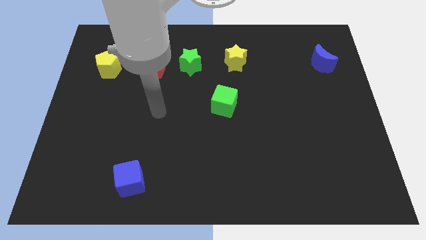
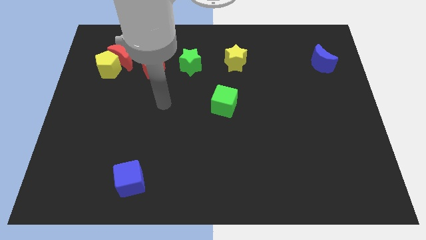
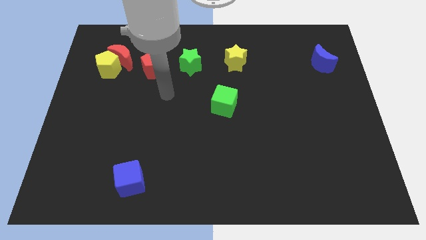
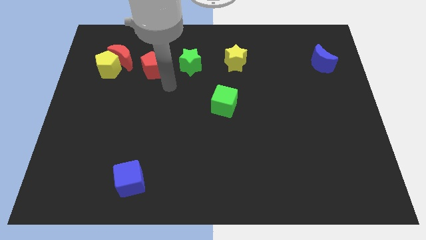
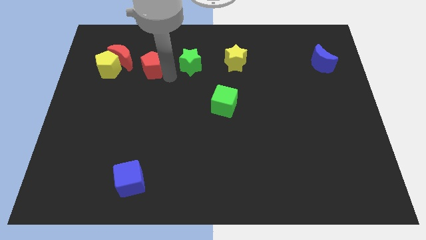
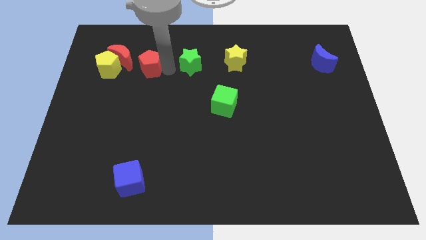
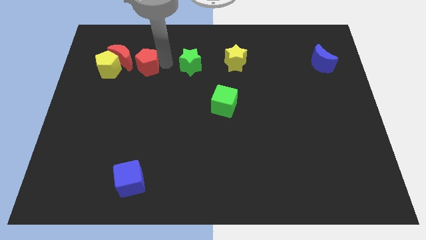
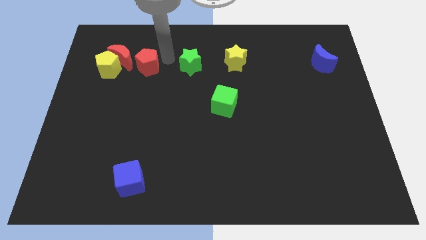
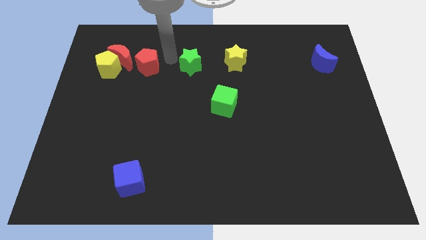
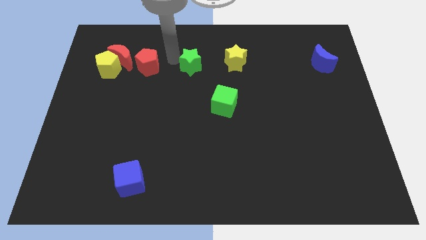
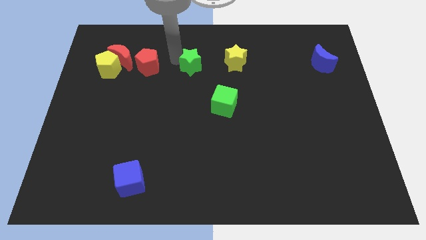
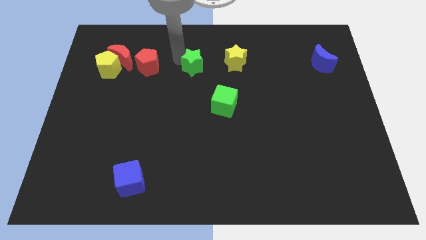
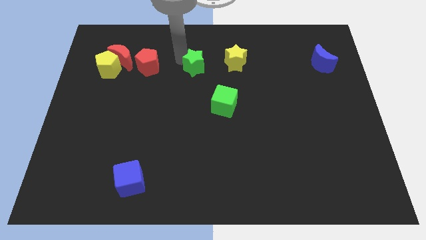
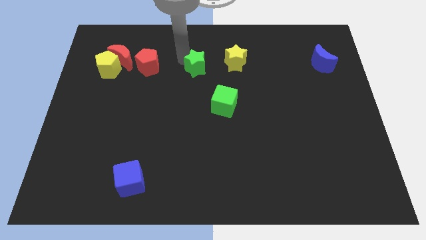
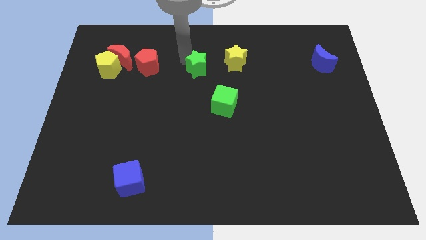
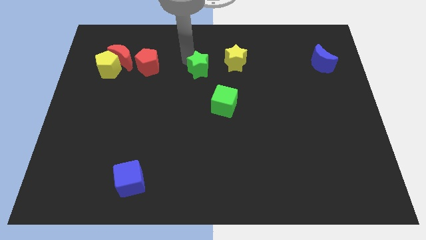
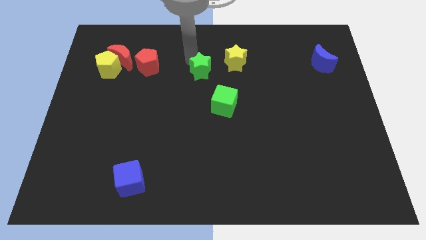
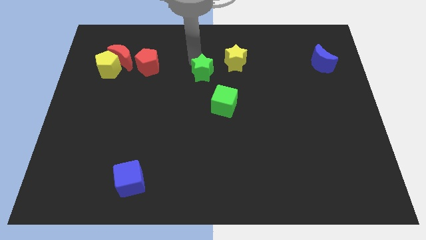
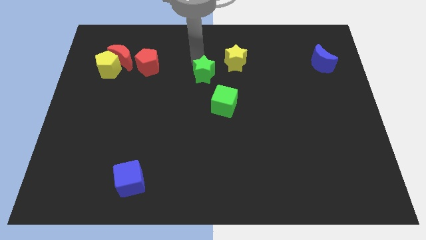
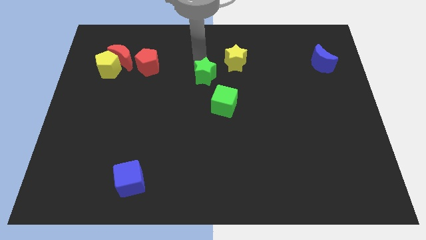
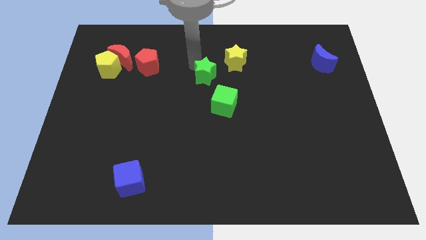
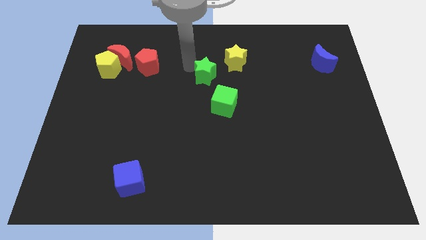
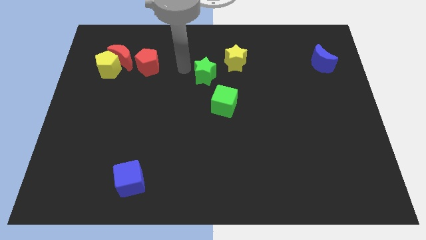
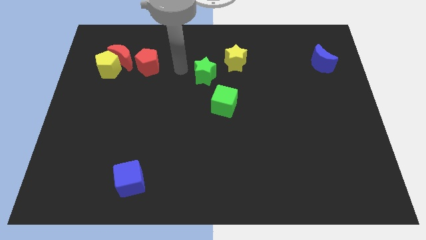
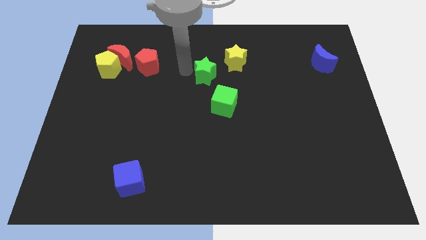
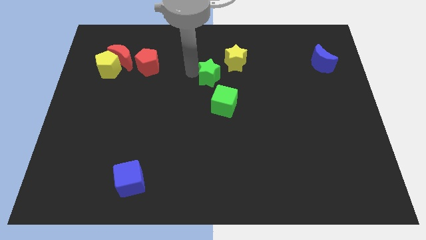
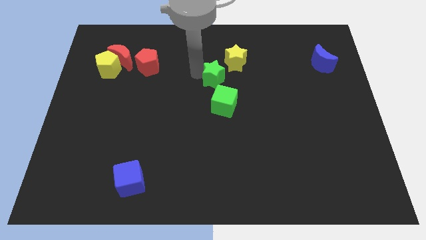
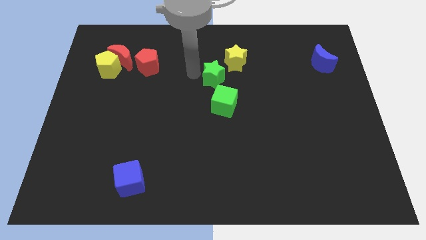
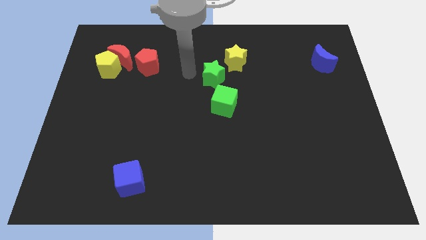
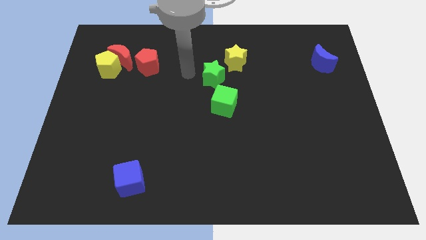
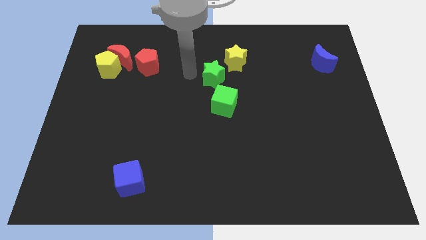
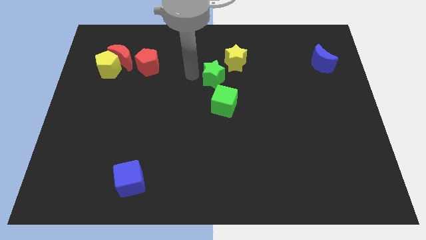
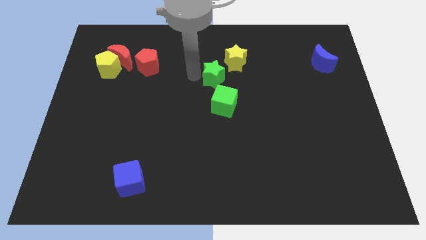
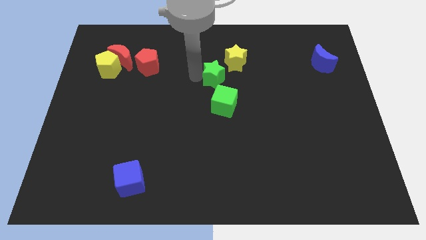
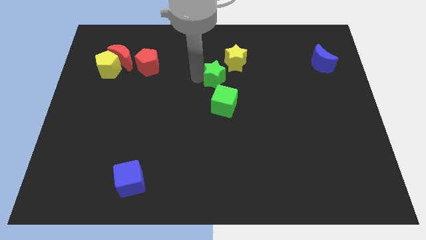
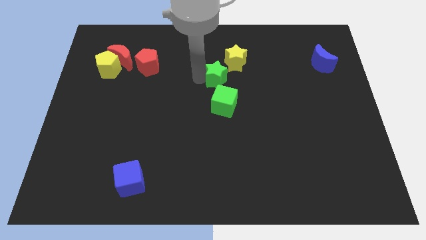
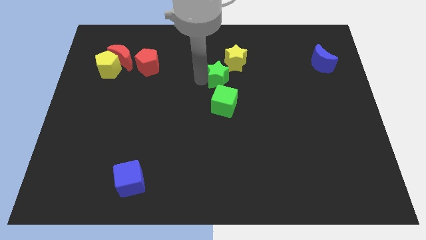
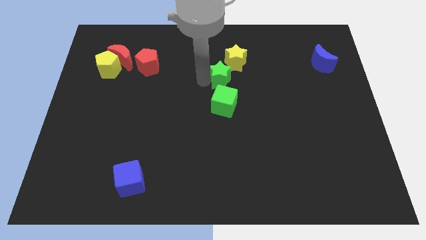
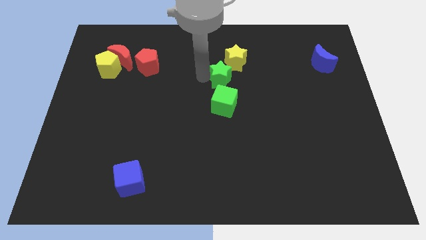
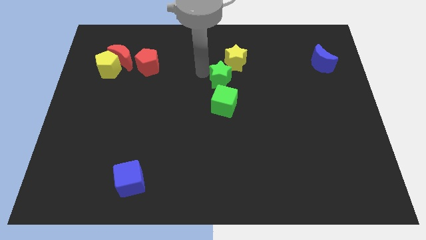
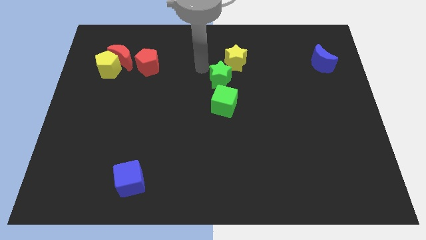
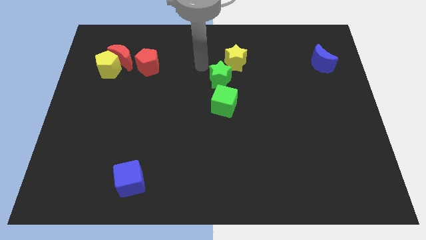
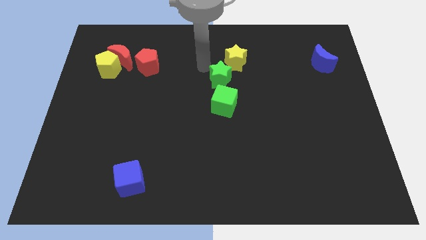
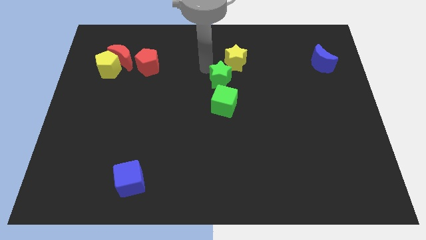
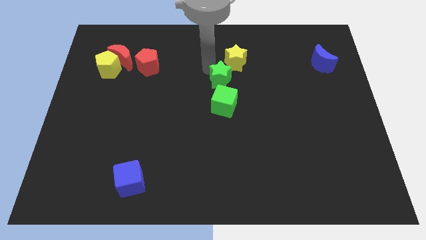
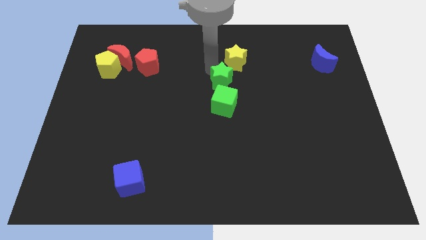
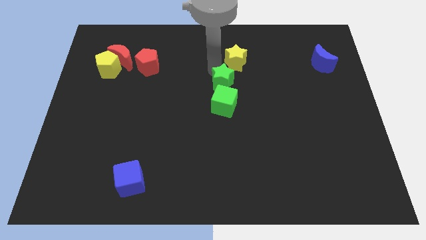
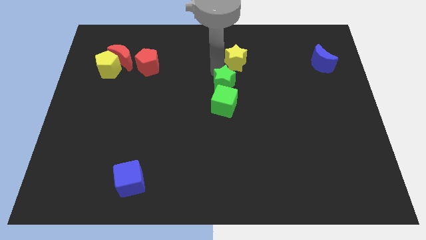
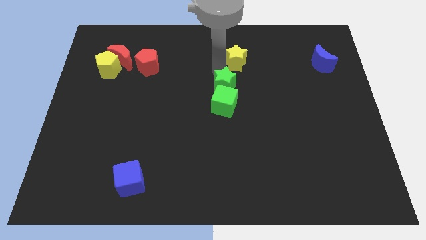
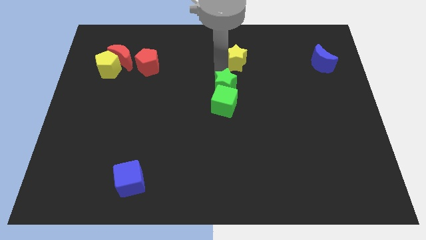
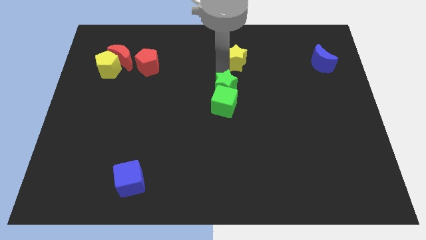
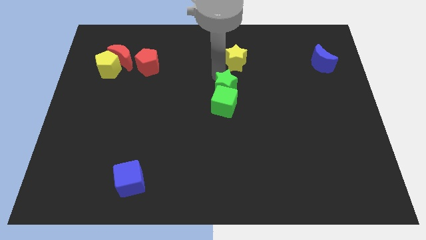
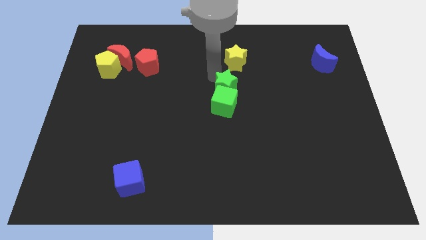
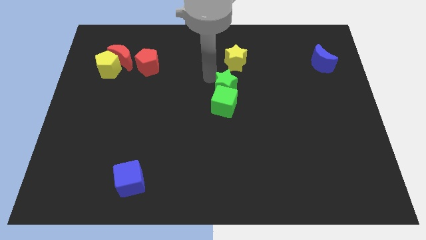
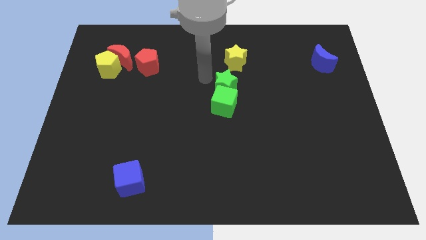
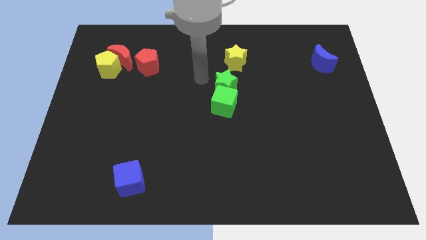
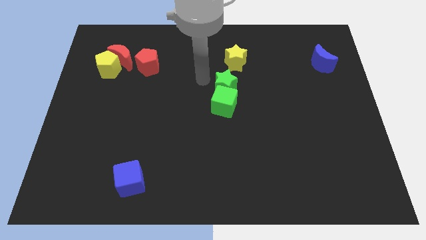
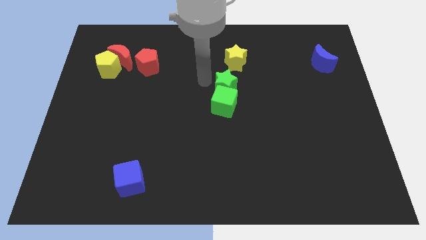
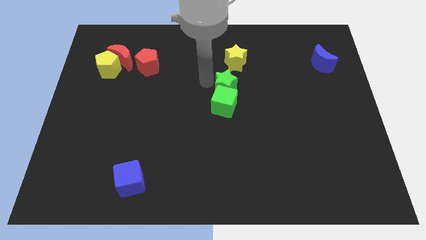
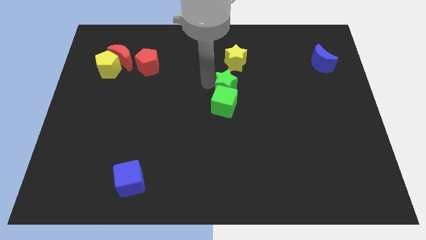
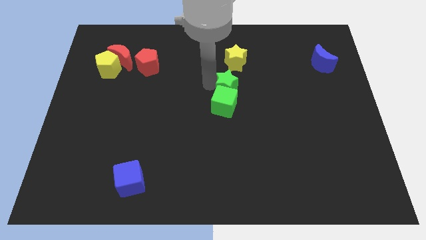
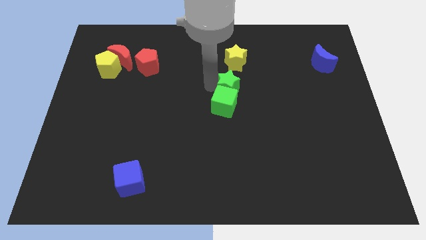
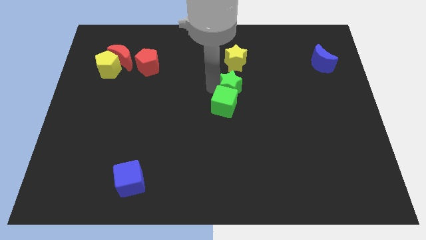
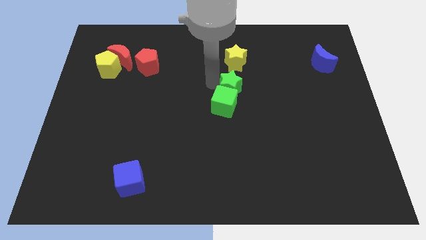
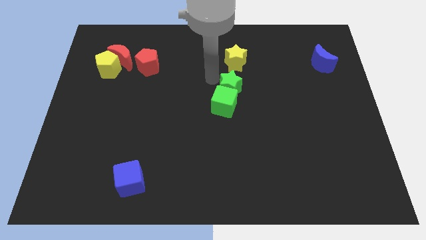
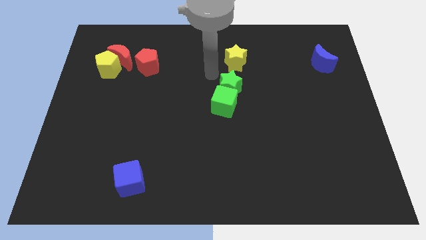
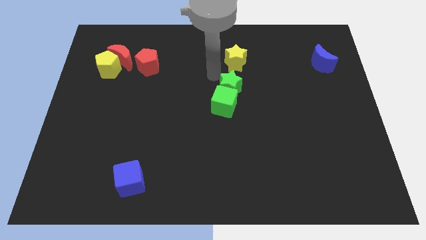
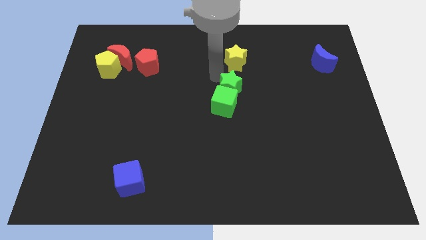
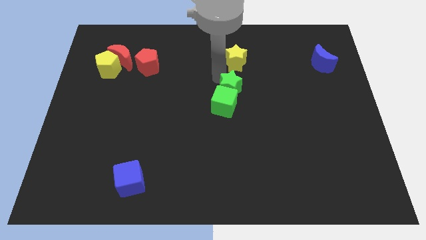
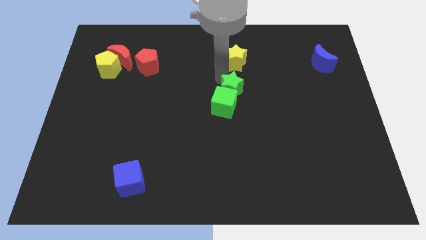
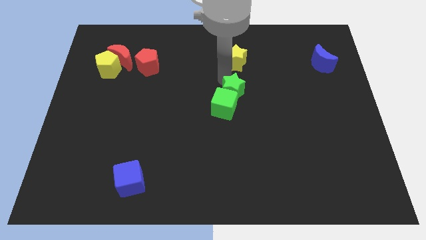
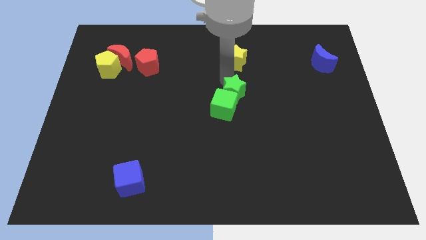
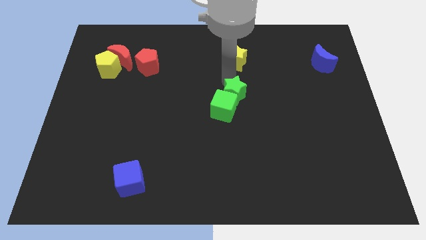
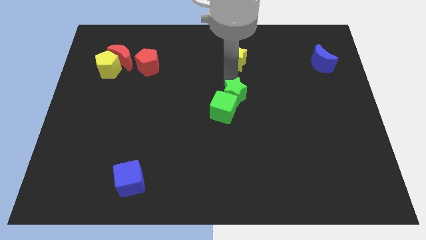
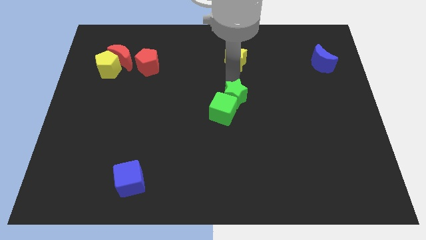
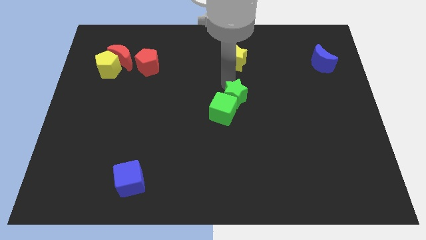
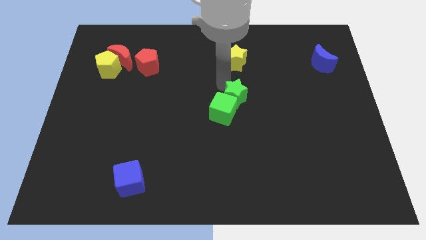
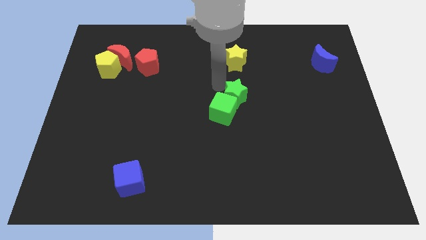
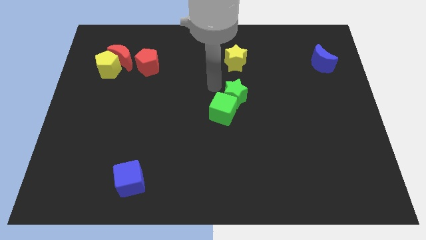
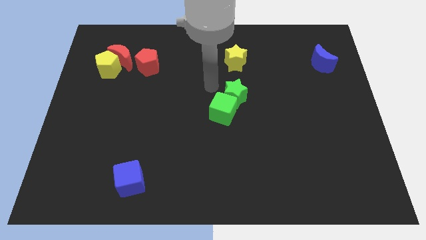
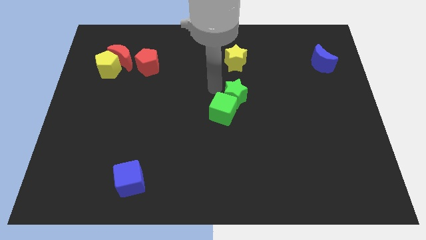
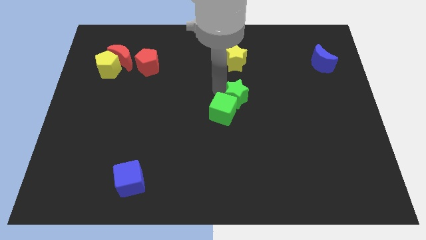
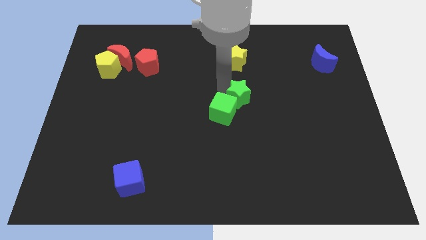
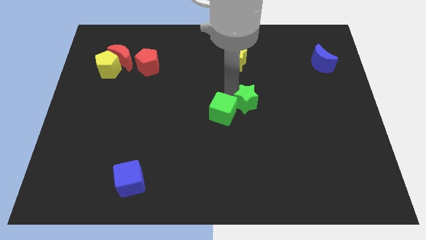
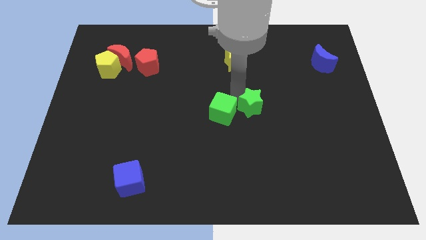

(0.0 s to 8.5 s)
push the green star downwards and to the right

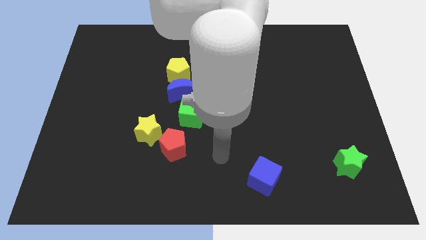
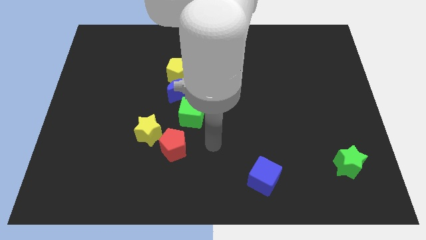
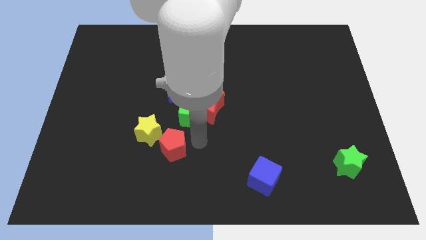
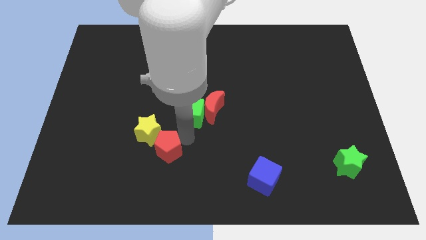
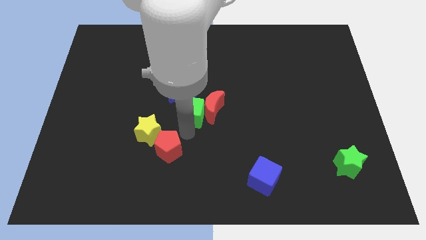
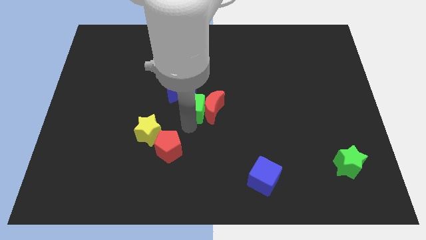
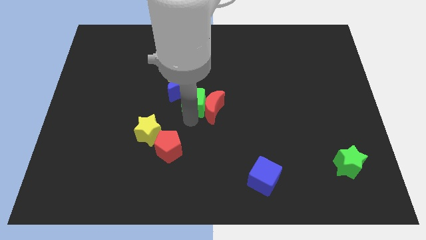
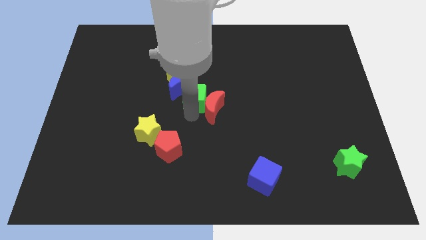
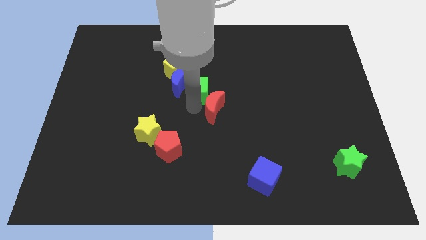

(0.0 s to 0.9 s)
slightly move the green cube up
